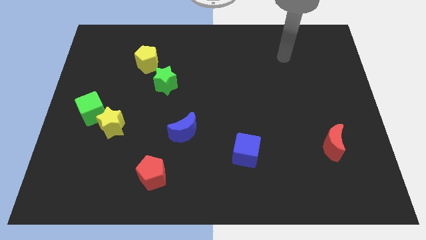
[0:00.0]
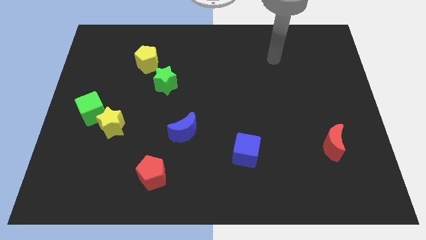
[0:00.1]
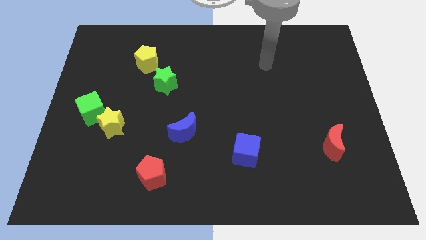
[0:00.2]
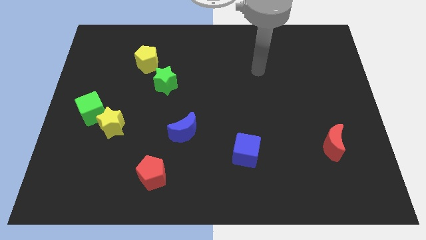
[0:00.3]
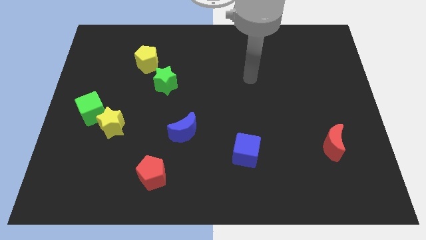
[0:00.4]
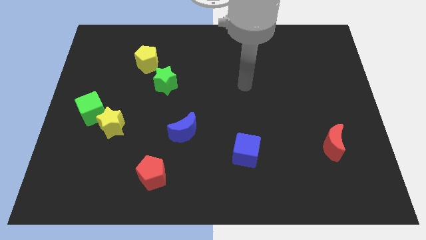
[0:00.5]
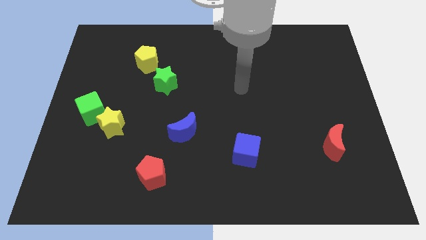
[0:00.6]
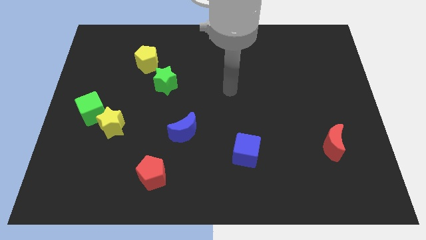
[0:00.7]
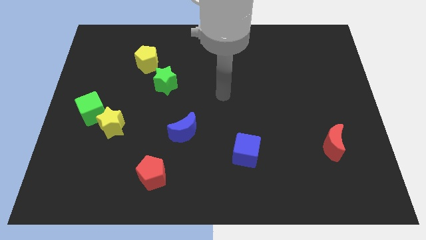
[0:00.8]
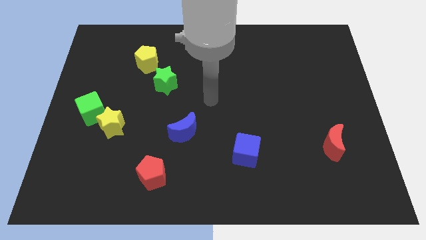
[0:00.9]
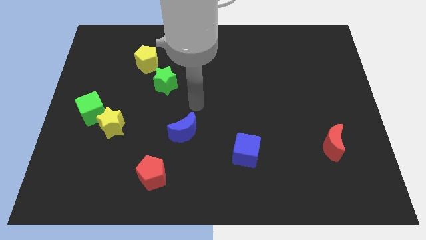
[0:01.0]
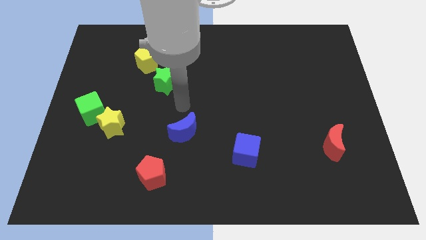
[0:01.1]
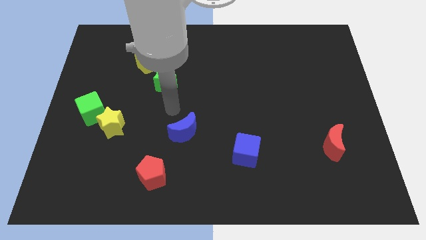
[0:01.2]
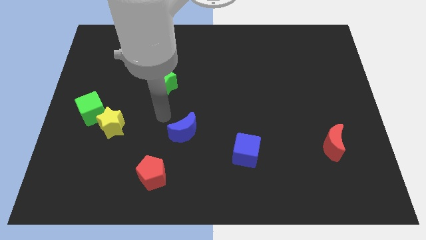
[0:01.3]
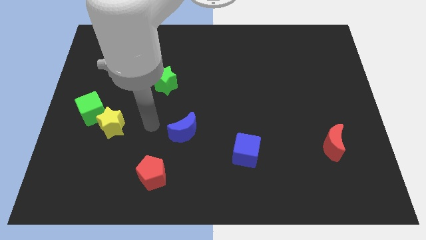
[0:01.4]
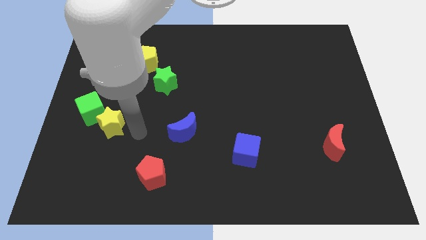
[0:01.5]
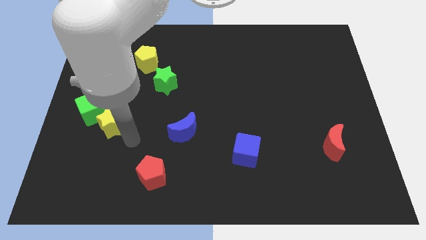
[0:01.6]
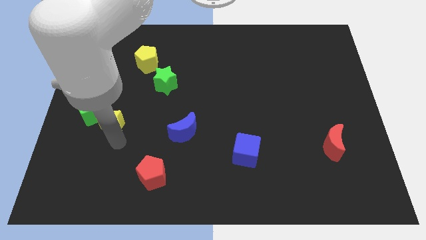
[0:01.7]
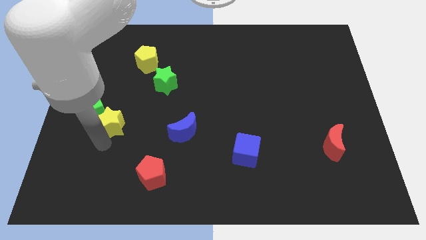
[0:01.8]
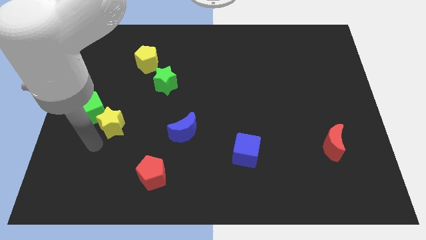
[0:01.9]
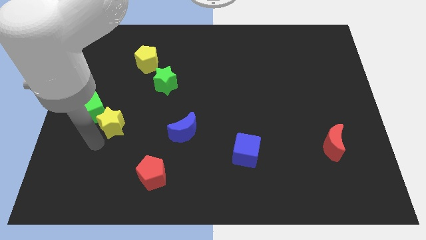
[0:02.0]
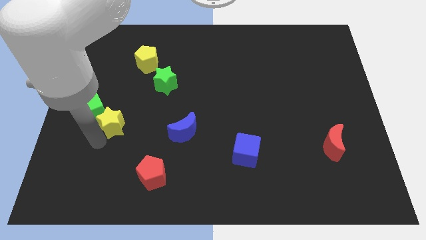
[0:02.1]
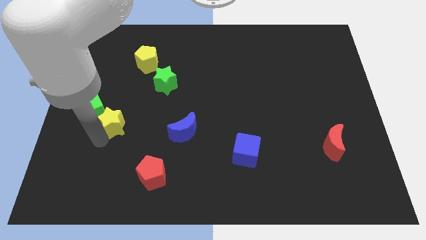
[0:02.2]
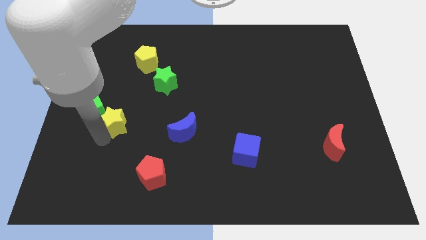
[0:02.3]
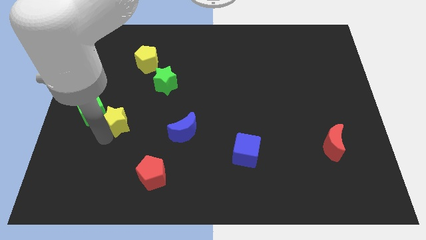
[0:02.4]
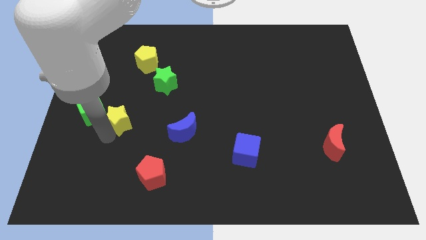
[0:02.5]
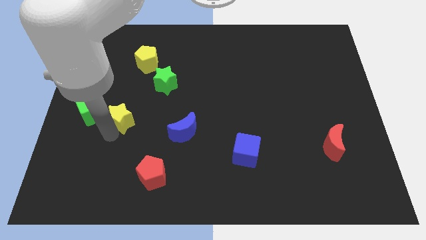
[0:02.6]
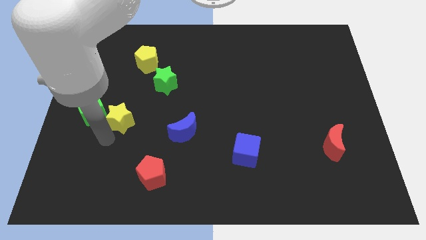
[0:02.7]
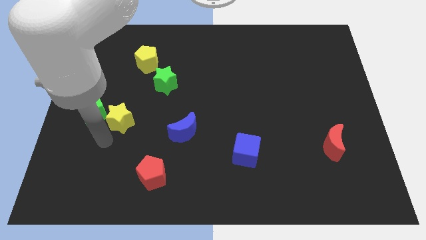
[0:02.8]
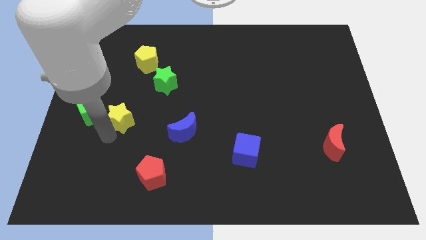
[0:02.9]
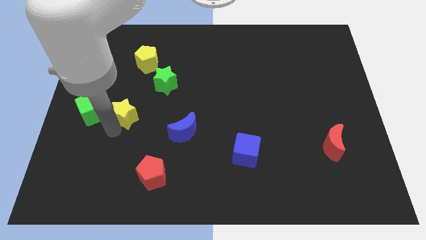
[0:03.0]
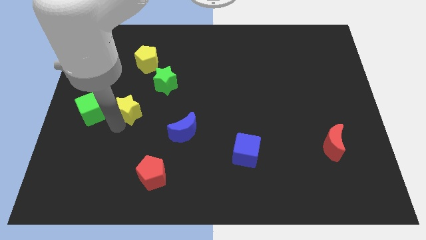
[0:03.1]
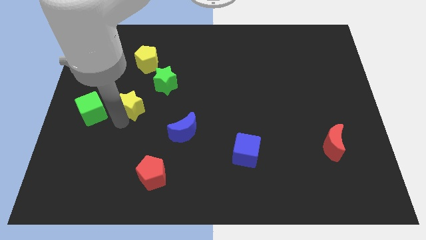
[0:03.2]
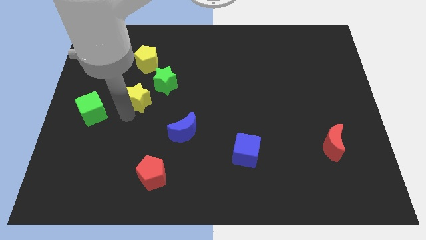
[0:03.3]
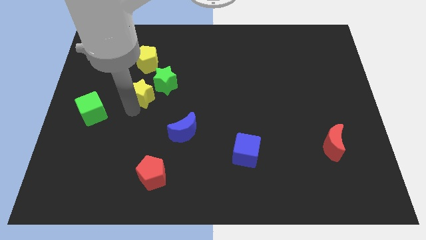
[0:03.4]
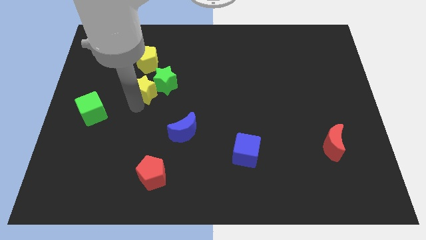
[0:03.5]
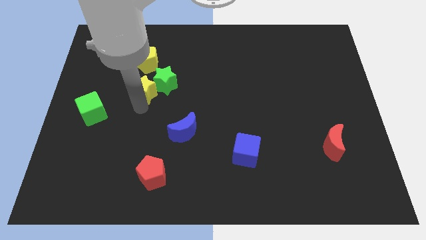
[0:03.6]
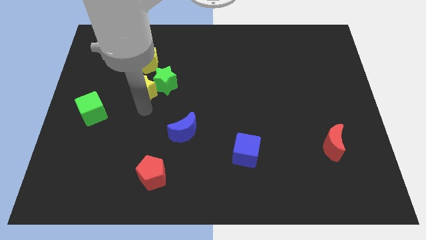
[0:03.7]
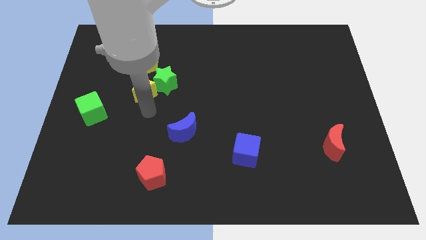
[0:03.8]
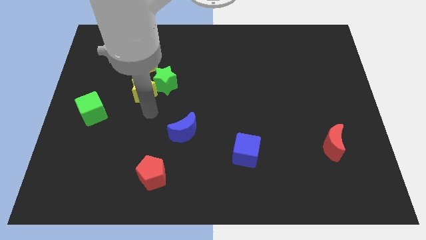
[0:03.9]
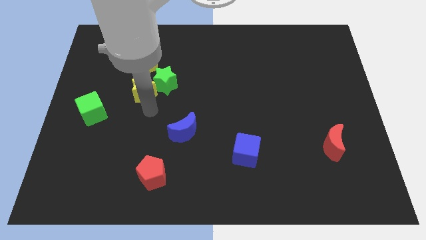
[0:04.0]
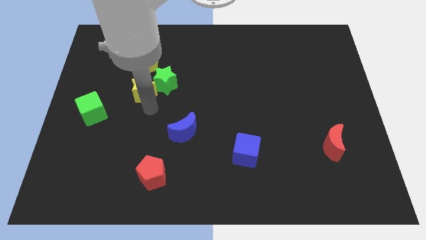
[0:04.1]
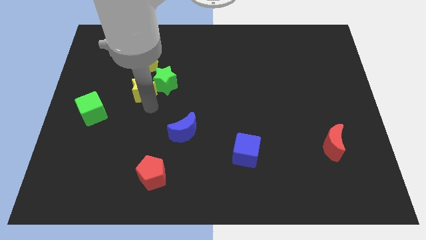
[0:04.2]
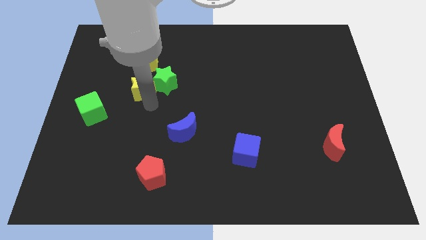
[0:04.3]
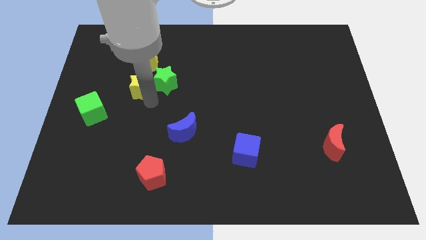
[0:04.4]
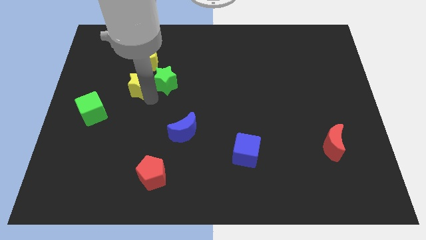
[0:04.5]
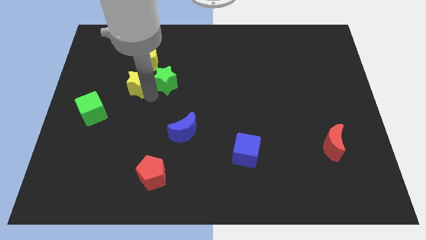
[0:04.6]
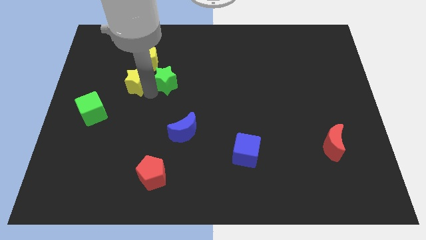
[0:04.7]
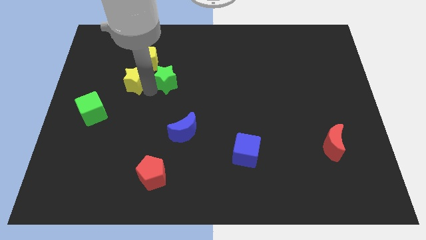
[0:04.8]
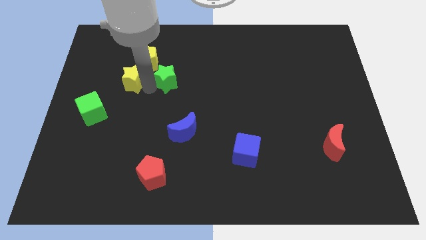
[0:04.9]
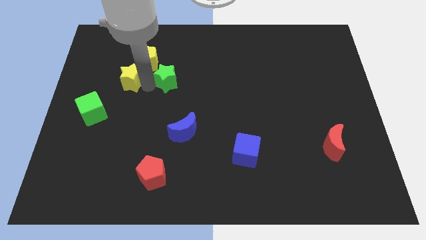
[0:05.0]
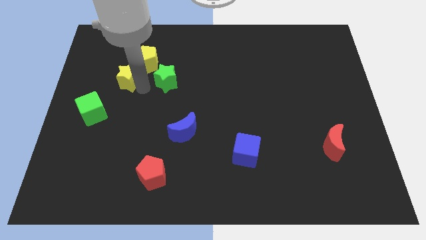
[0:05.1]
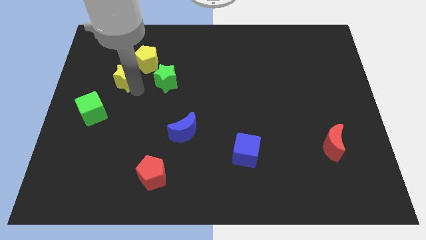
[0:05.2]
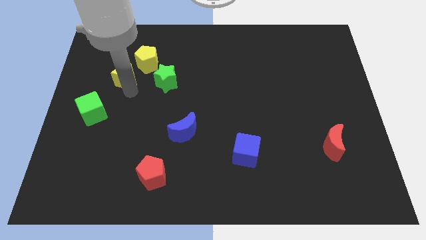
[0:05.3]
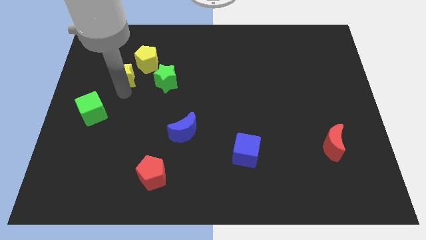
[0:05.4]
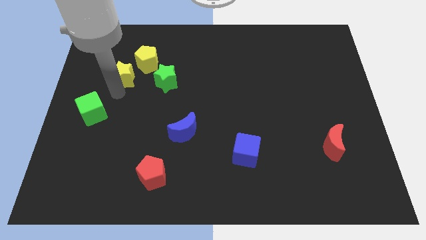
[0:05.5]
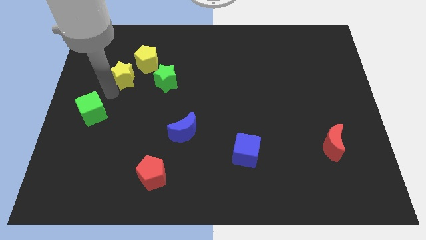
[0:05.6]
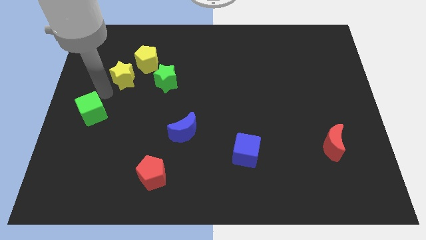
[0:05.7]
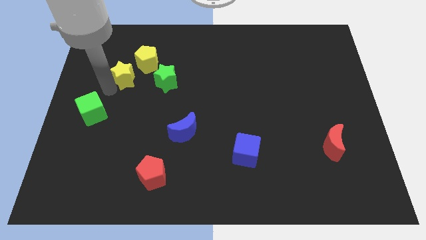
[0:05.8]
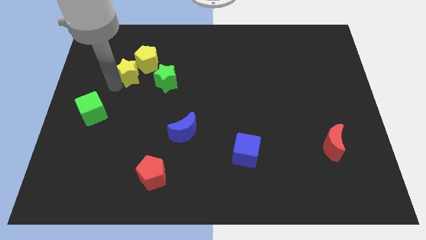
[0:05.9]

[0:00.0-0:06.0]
move the yellow star close to the yellow pentagon
